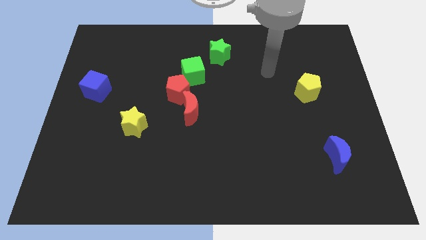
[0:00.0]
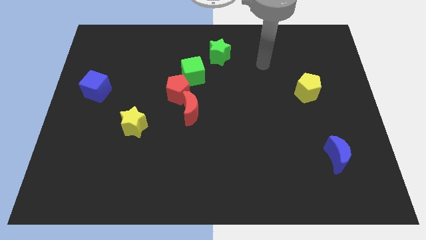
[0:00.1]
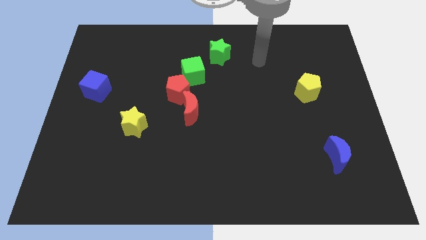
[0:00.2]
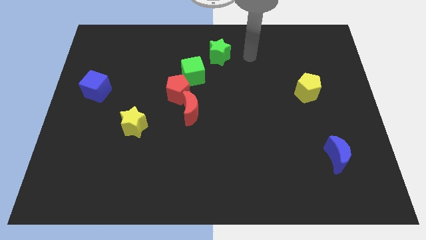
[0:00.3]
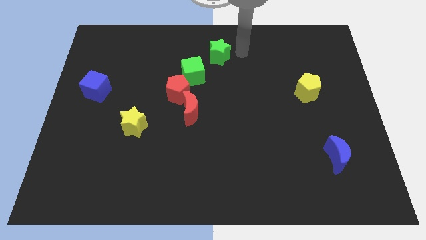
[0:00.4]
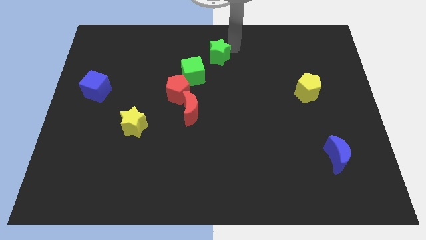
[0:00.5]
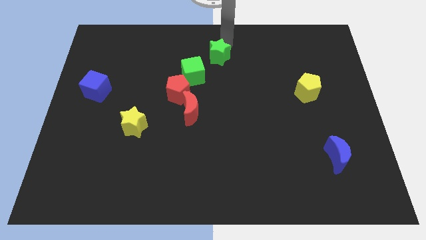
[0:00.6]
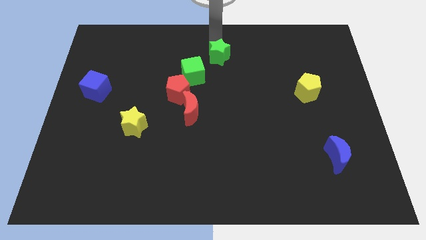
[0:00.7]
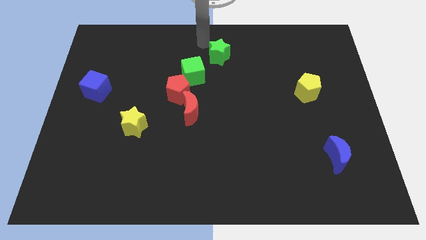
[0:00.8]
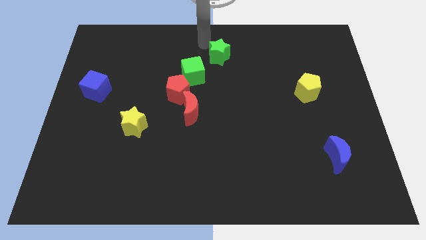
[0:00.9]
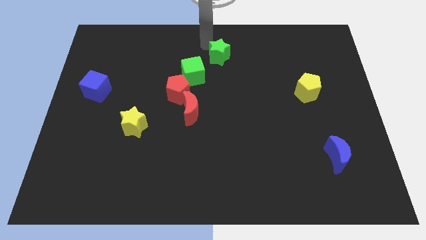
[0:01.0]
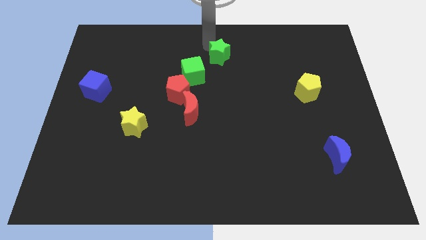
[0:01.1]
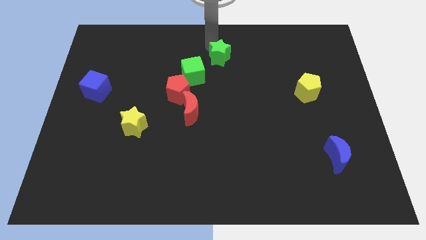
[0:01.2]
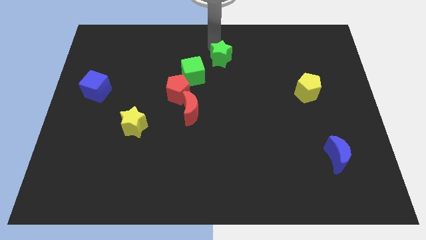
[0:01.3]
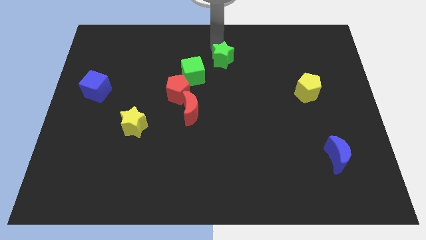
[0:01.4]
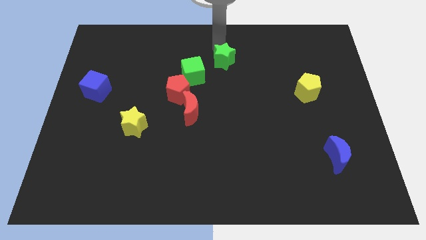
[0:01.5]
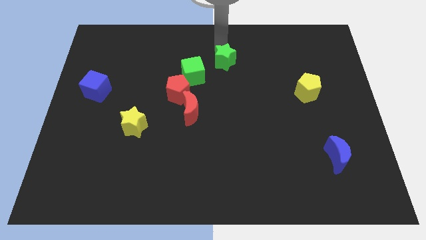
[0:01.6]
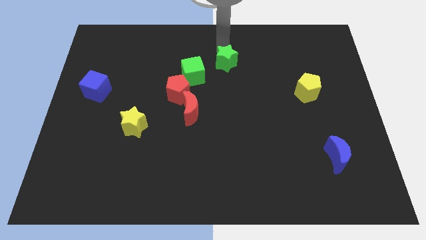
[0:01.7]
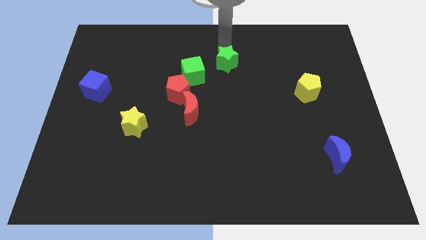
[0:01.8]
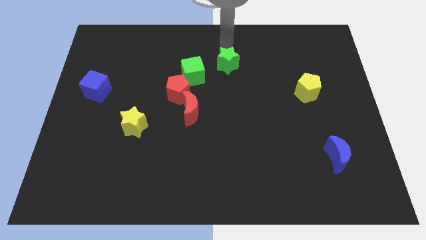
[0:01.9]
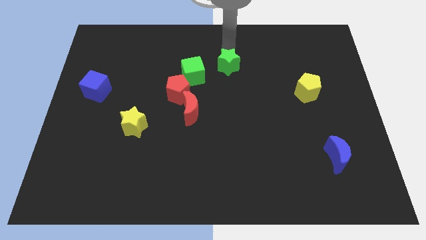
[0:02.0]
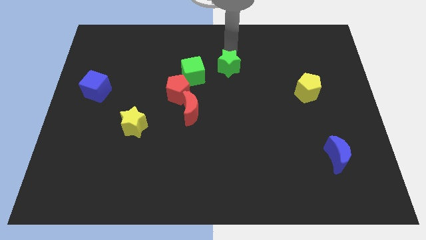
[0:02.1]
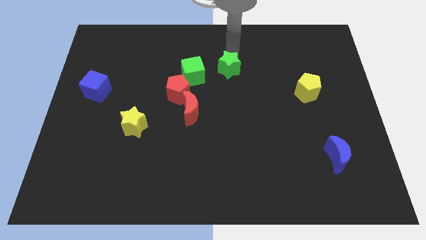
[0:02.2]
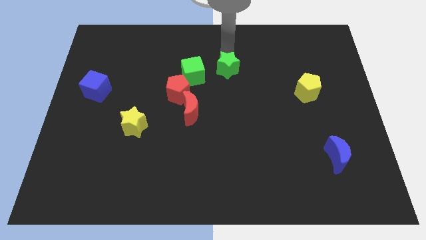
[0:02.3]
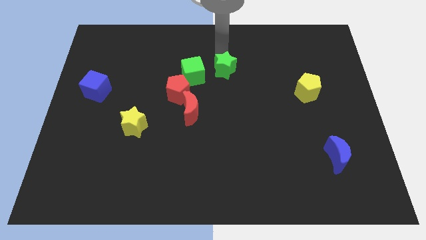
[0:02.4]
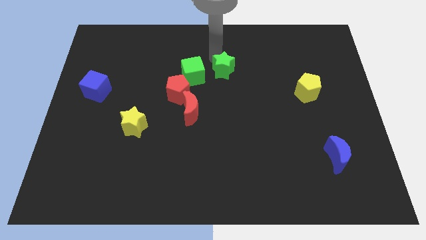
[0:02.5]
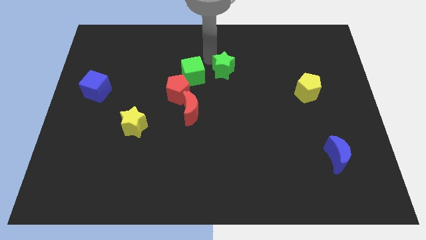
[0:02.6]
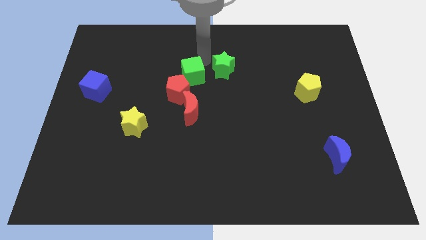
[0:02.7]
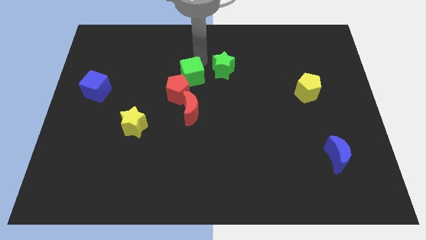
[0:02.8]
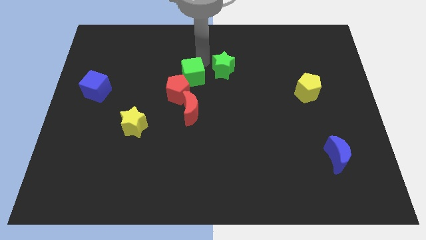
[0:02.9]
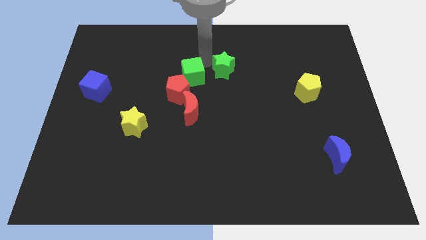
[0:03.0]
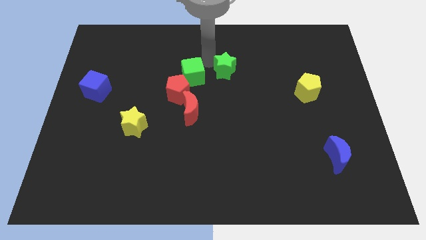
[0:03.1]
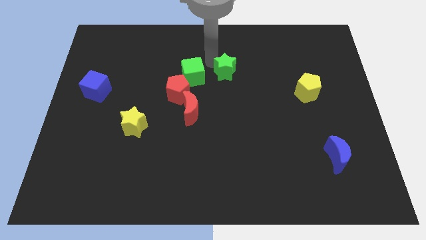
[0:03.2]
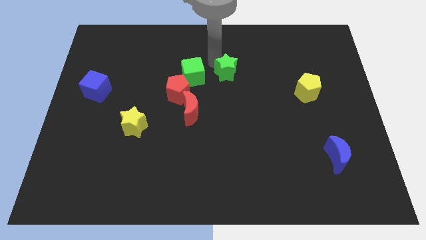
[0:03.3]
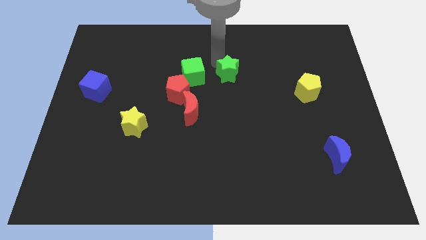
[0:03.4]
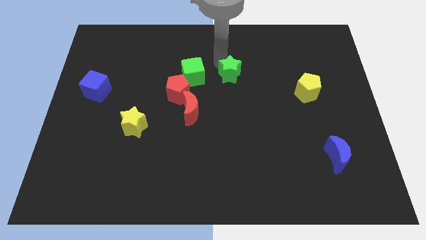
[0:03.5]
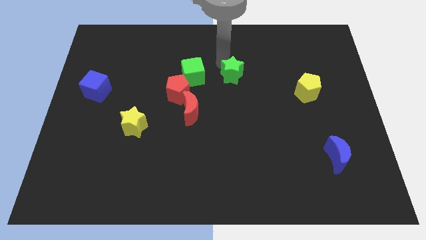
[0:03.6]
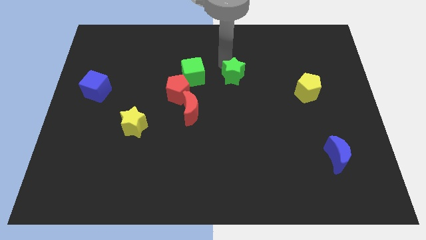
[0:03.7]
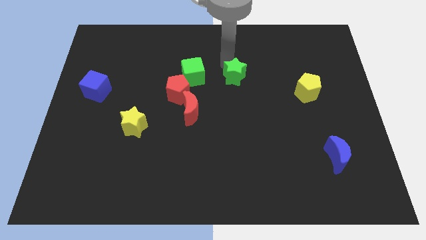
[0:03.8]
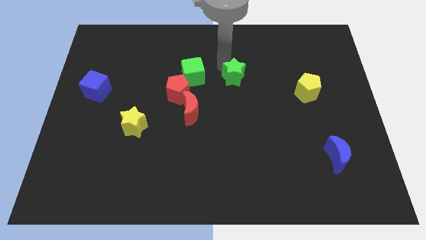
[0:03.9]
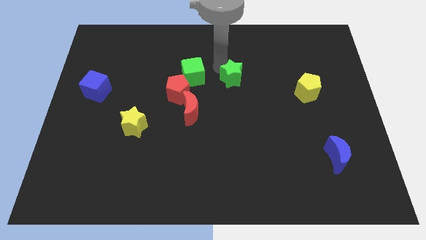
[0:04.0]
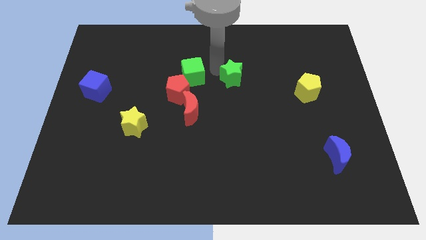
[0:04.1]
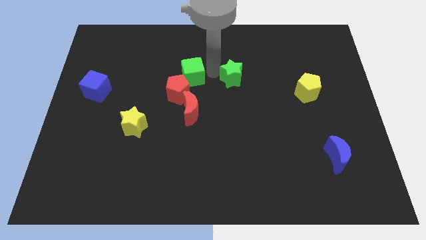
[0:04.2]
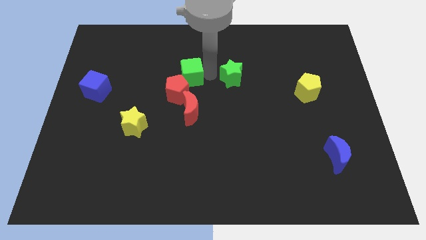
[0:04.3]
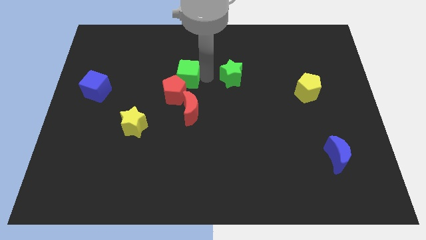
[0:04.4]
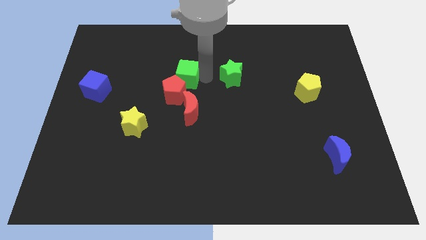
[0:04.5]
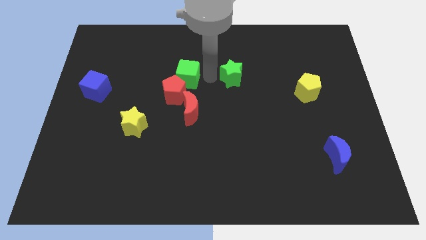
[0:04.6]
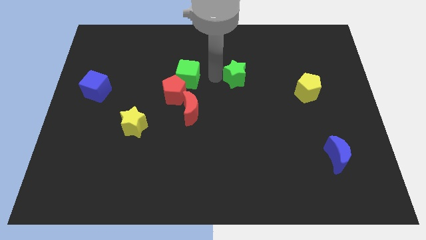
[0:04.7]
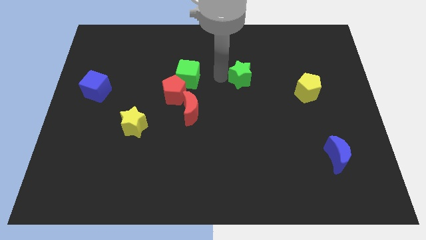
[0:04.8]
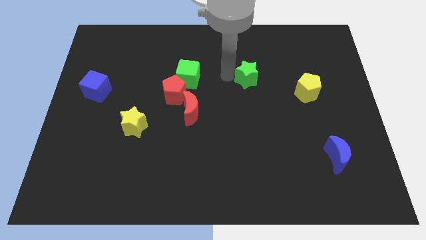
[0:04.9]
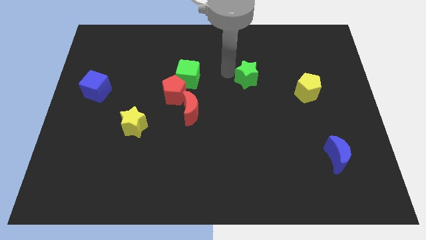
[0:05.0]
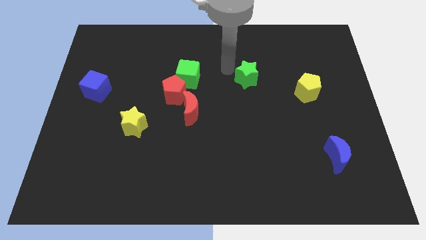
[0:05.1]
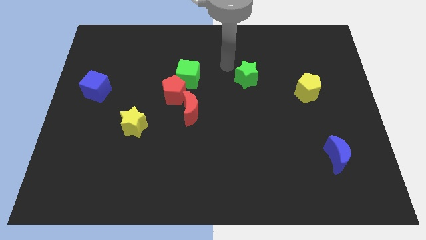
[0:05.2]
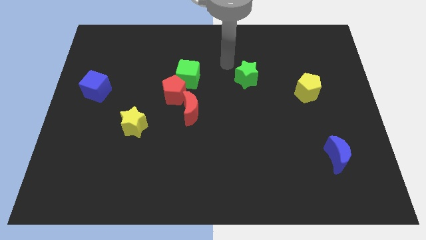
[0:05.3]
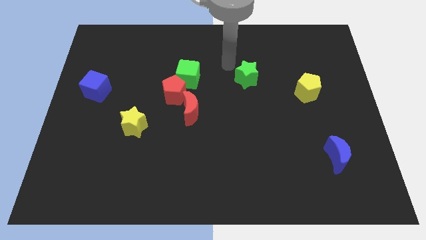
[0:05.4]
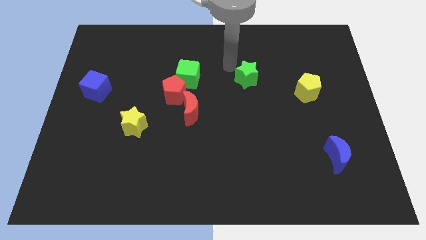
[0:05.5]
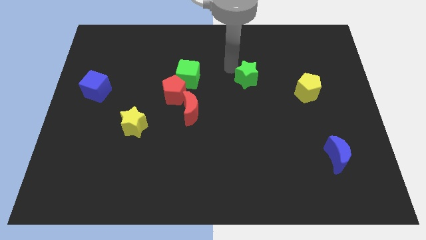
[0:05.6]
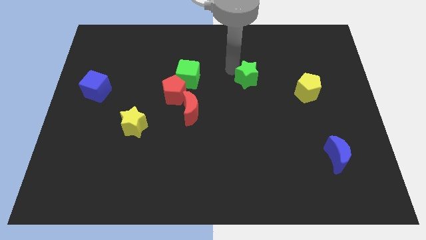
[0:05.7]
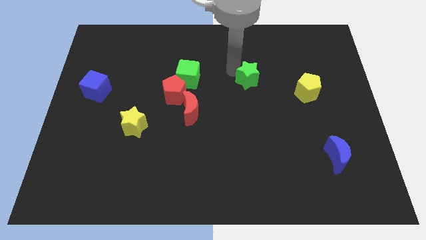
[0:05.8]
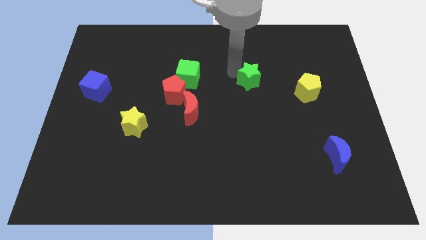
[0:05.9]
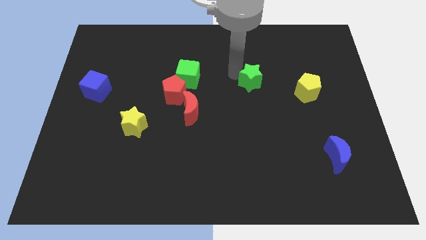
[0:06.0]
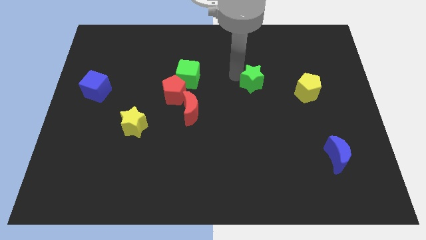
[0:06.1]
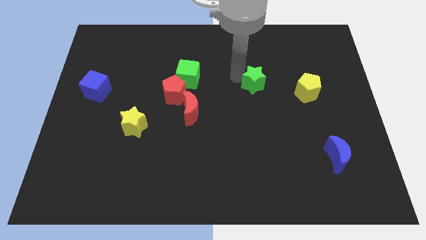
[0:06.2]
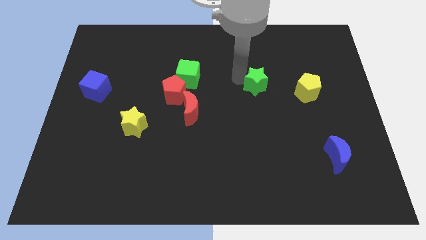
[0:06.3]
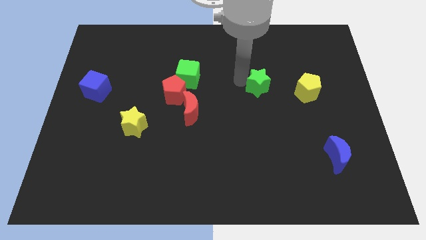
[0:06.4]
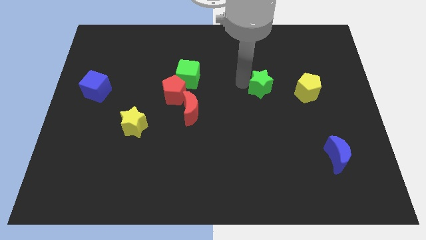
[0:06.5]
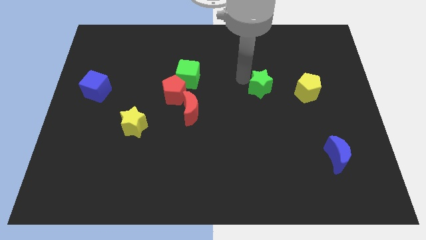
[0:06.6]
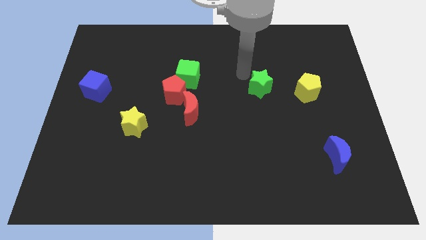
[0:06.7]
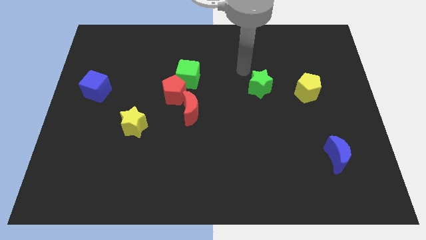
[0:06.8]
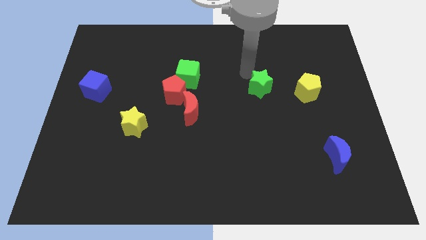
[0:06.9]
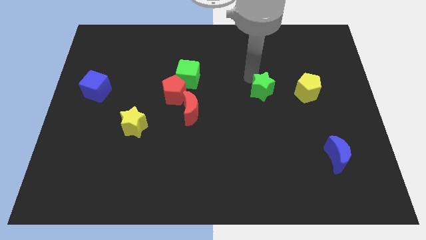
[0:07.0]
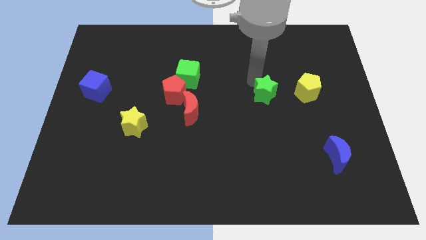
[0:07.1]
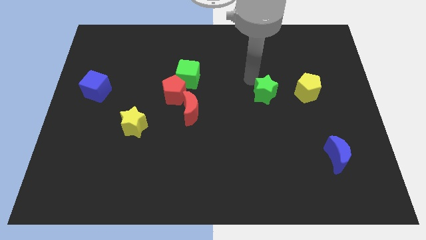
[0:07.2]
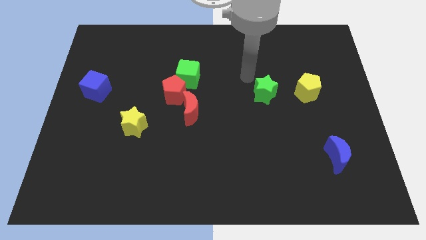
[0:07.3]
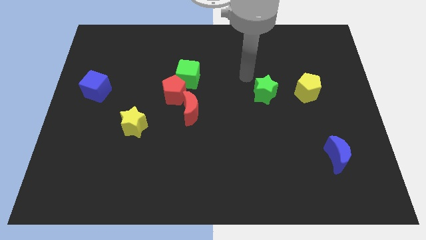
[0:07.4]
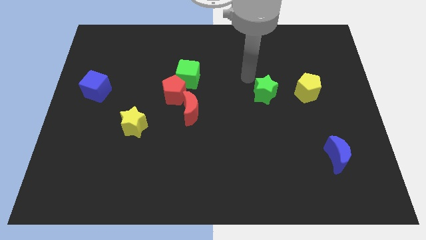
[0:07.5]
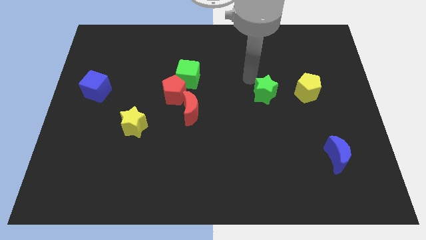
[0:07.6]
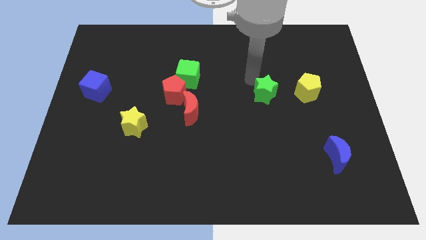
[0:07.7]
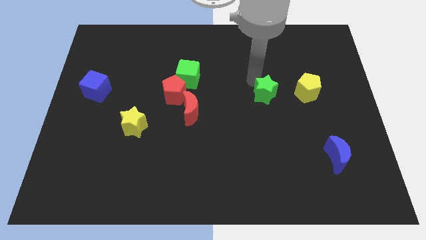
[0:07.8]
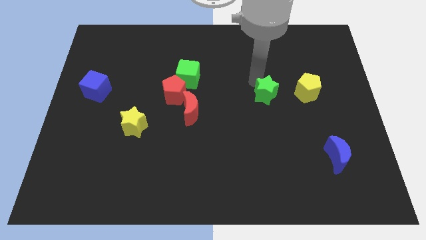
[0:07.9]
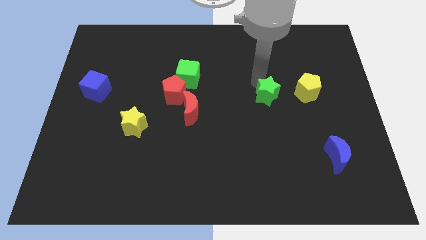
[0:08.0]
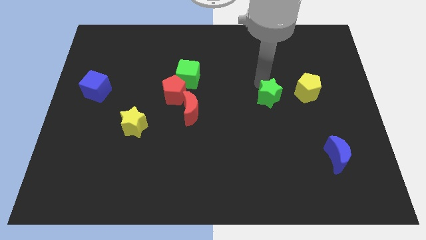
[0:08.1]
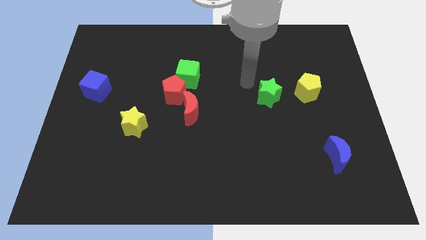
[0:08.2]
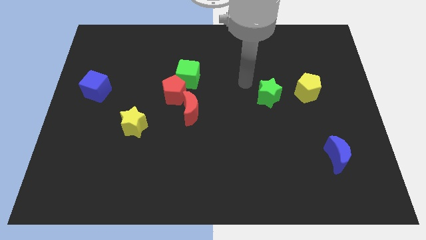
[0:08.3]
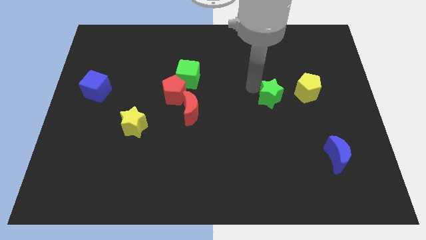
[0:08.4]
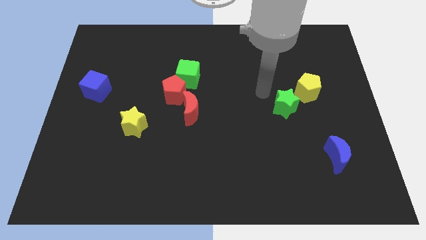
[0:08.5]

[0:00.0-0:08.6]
slide the green star down and to the right diagonally
